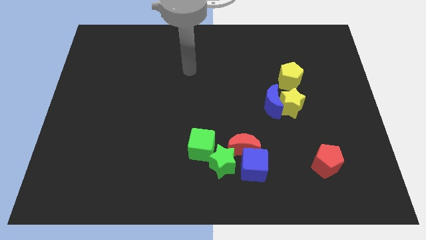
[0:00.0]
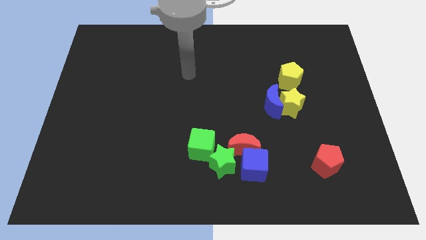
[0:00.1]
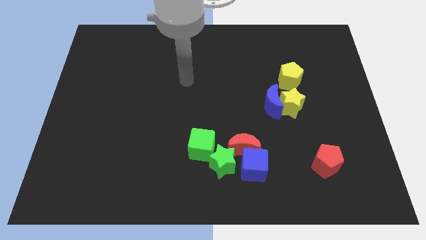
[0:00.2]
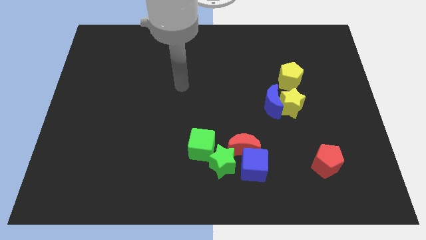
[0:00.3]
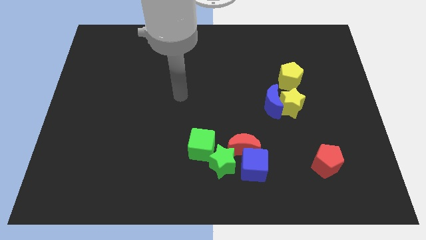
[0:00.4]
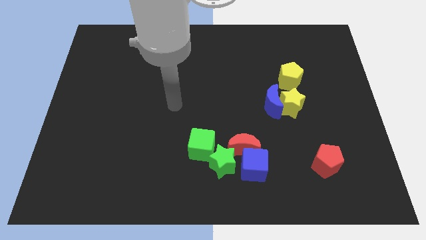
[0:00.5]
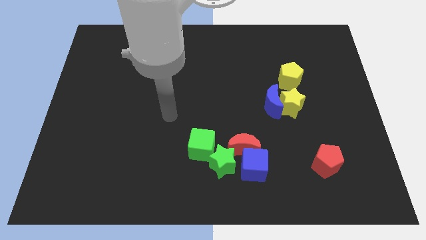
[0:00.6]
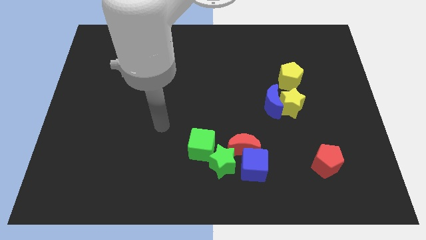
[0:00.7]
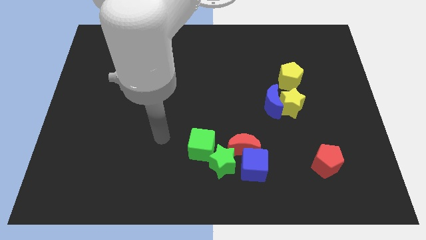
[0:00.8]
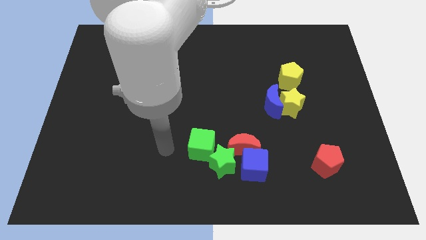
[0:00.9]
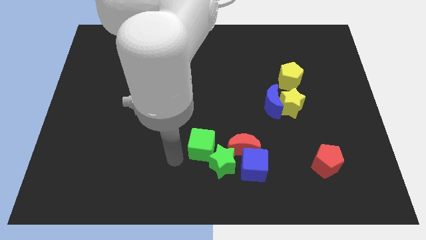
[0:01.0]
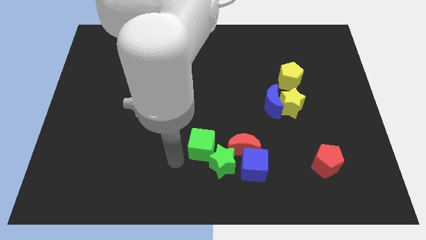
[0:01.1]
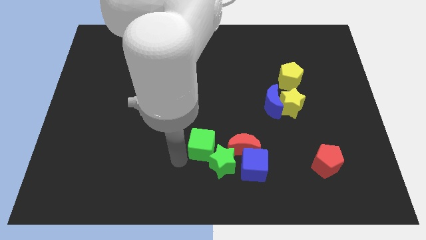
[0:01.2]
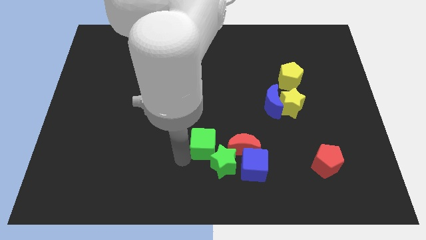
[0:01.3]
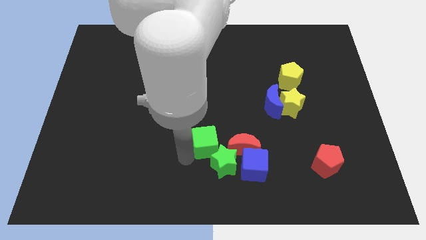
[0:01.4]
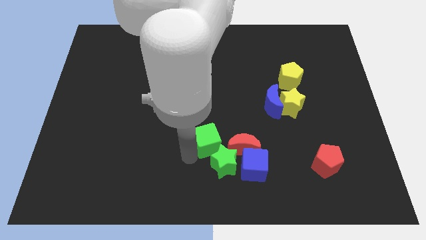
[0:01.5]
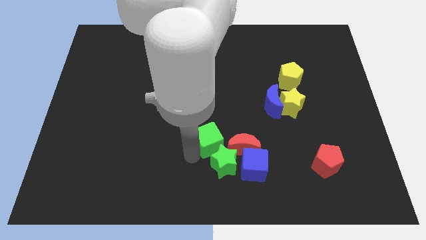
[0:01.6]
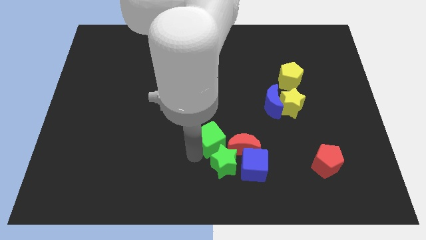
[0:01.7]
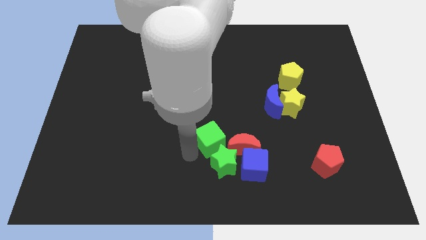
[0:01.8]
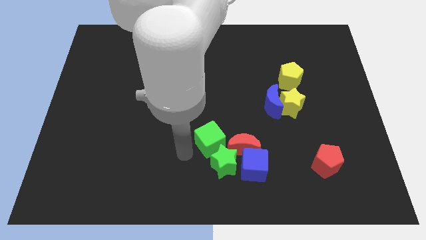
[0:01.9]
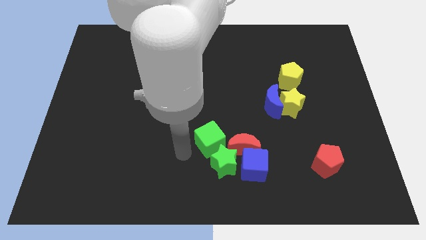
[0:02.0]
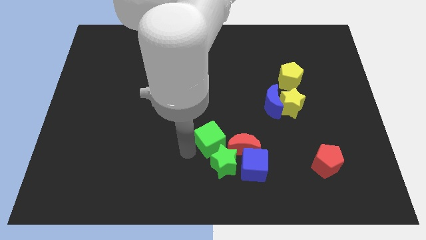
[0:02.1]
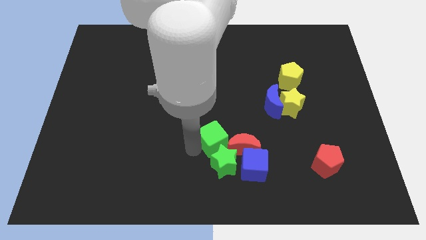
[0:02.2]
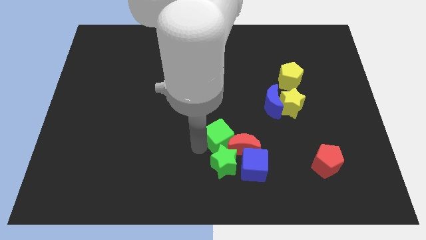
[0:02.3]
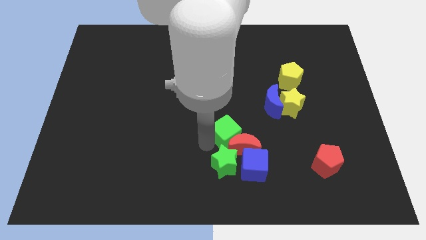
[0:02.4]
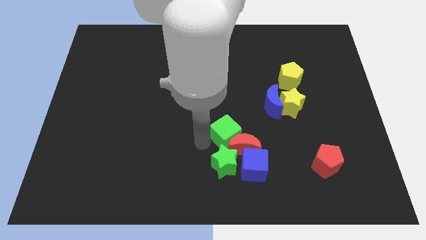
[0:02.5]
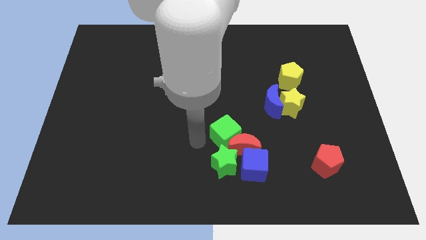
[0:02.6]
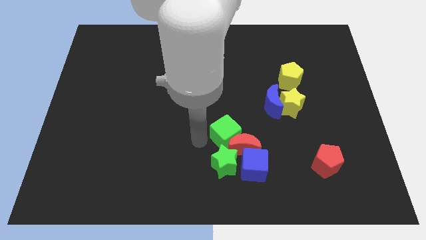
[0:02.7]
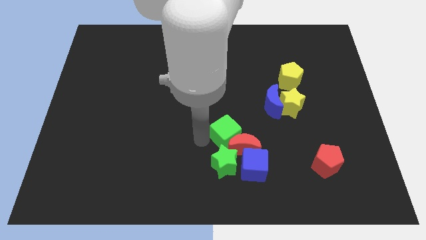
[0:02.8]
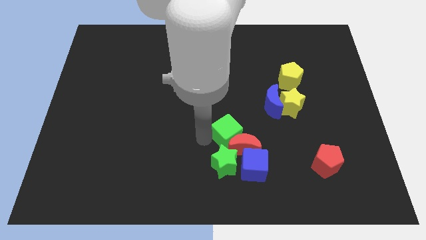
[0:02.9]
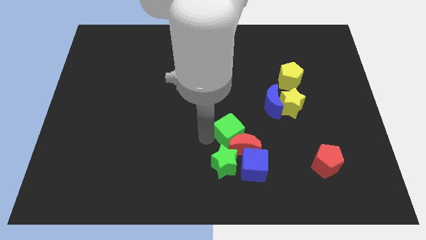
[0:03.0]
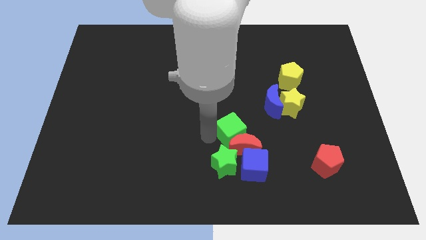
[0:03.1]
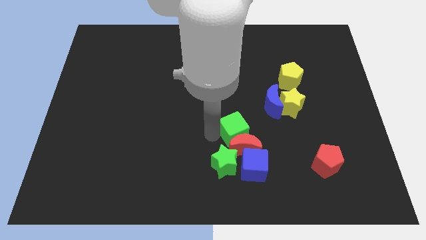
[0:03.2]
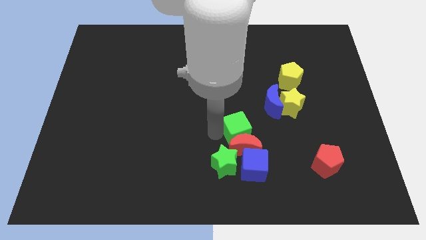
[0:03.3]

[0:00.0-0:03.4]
slide the green cube a little right

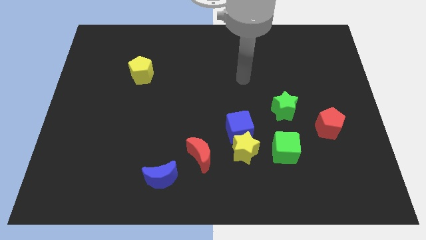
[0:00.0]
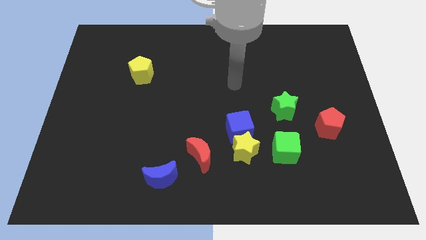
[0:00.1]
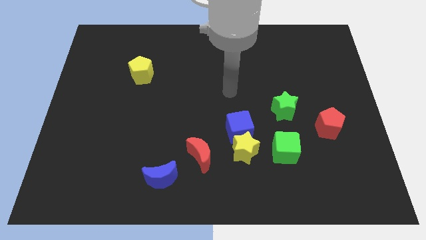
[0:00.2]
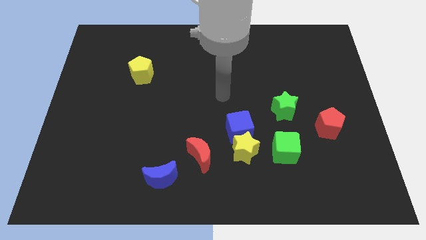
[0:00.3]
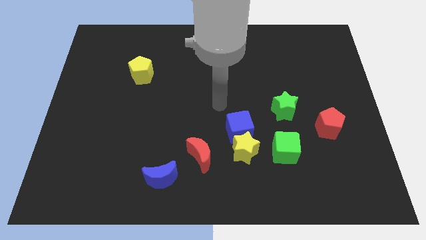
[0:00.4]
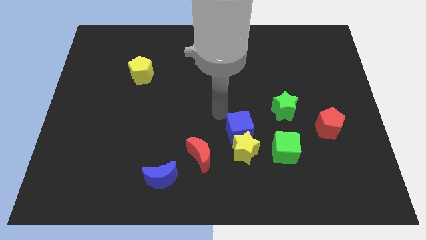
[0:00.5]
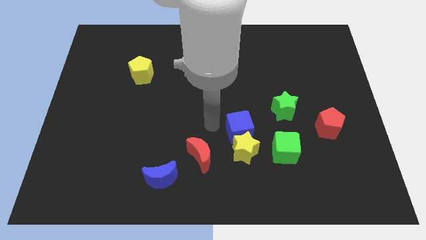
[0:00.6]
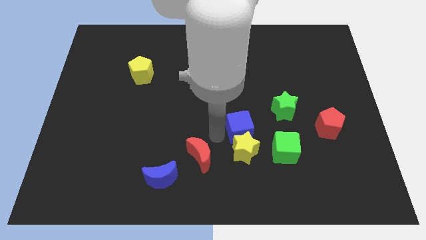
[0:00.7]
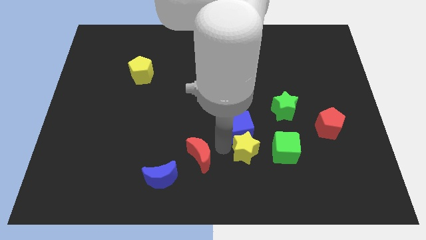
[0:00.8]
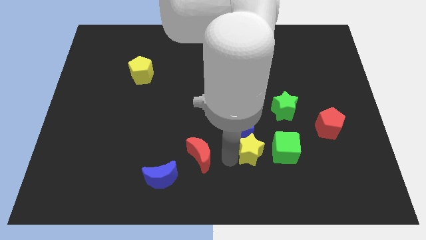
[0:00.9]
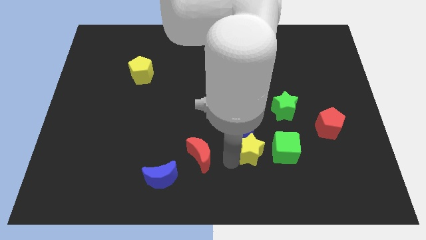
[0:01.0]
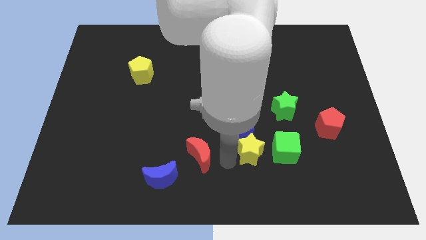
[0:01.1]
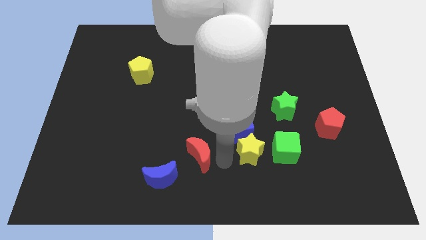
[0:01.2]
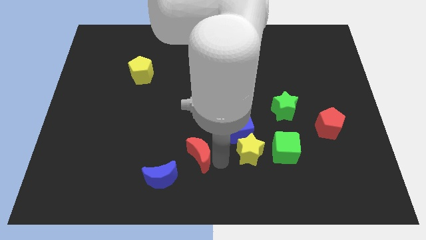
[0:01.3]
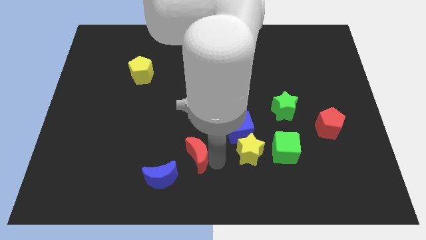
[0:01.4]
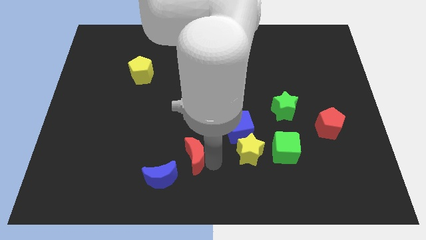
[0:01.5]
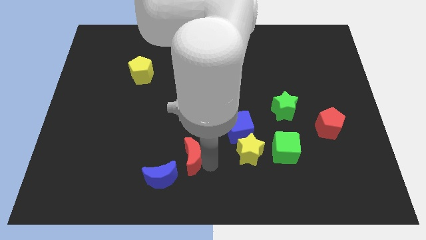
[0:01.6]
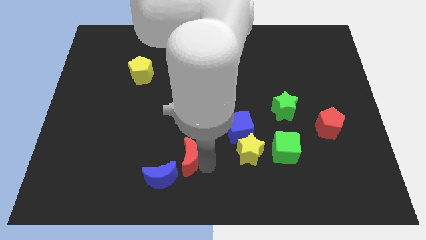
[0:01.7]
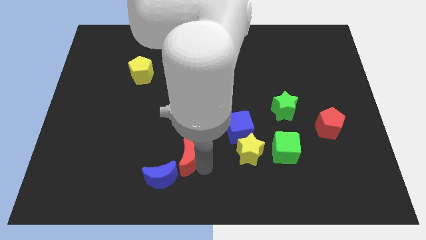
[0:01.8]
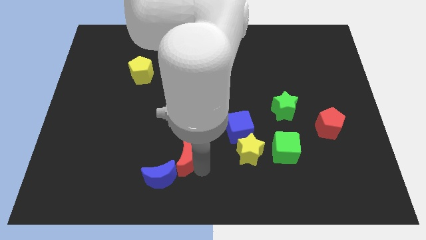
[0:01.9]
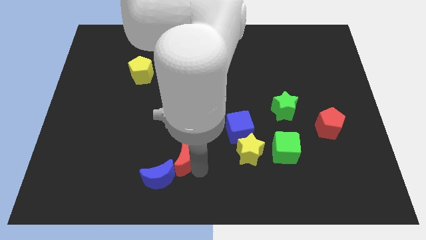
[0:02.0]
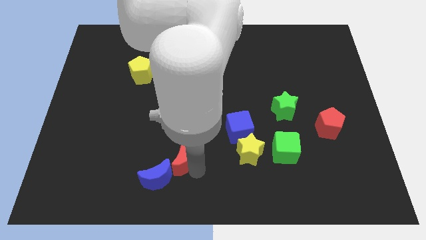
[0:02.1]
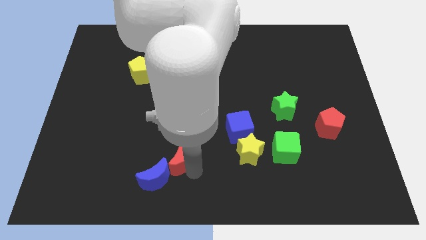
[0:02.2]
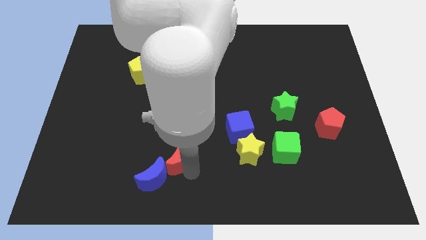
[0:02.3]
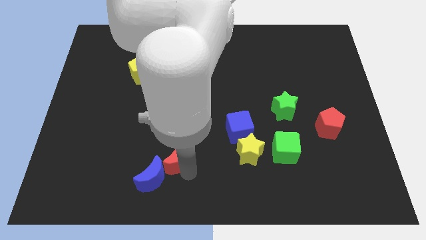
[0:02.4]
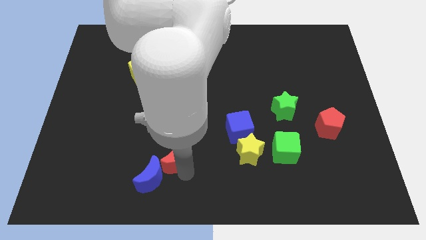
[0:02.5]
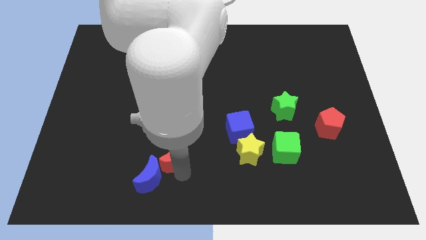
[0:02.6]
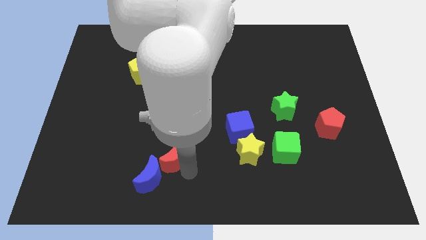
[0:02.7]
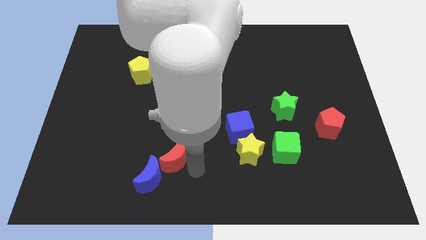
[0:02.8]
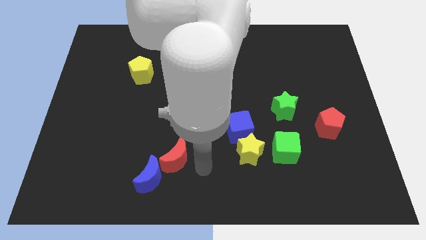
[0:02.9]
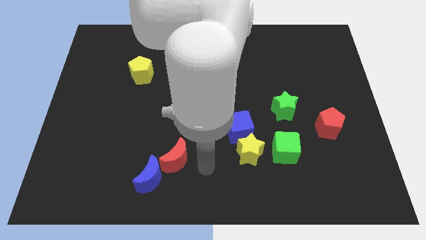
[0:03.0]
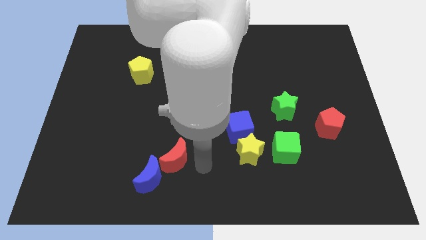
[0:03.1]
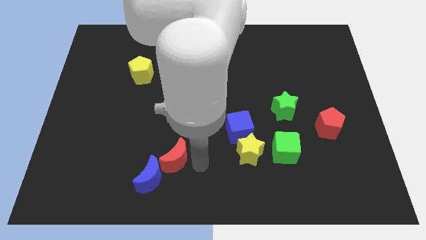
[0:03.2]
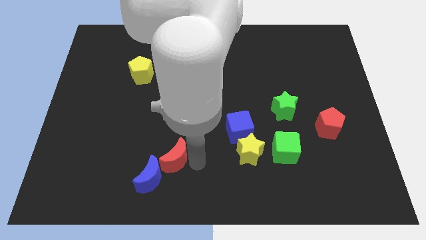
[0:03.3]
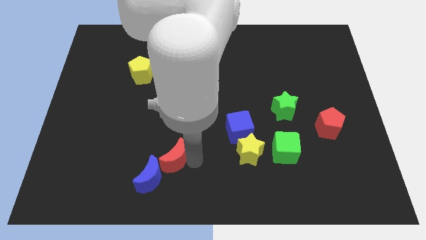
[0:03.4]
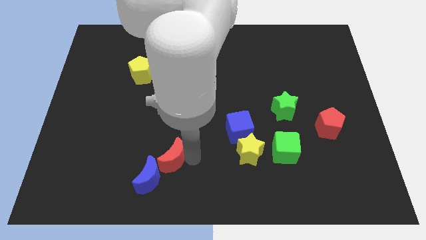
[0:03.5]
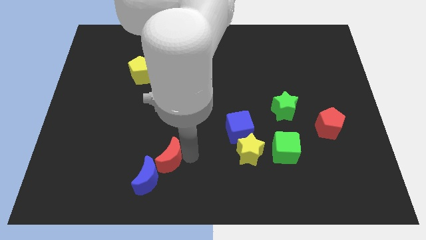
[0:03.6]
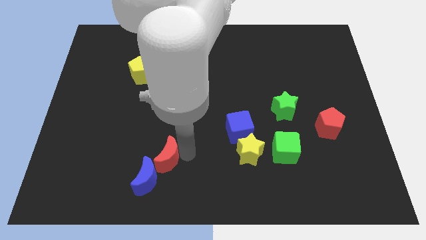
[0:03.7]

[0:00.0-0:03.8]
slide the red moon a little bit to the left

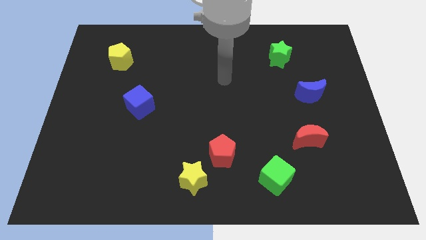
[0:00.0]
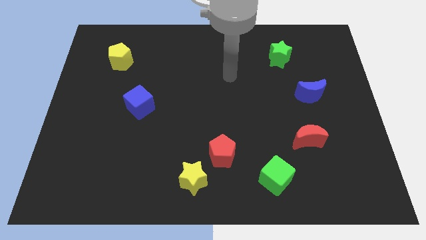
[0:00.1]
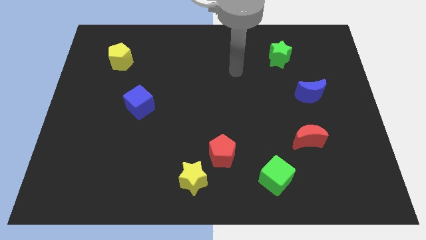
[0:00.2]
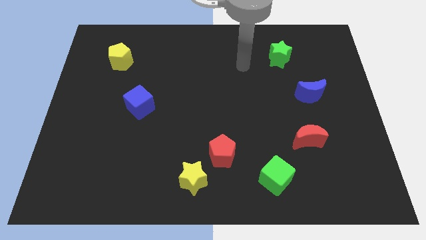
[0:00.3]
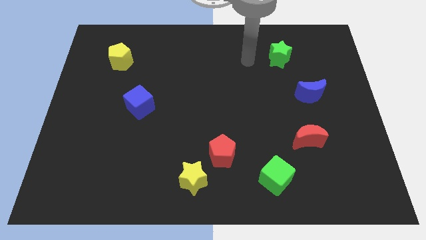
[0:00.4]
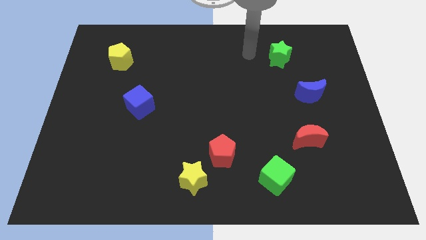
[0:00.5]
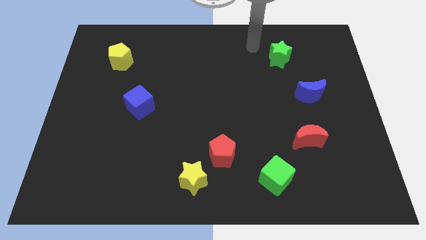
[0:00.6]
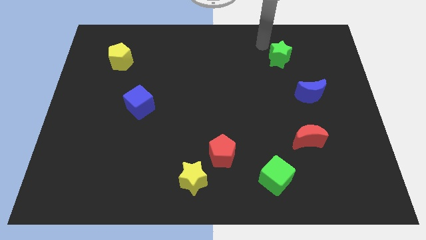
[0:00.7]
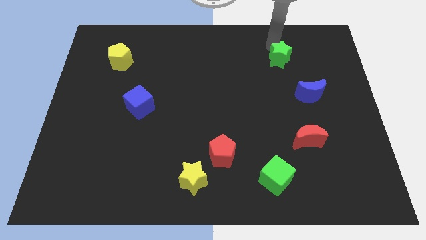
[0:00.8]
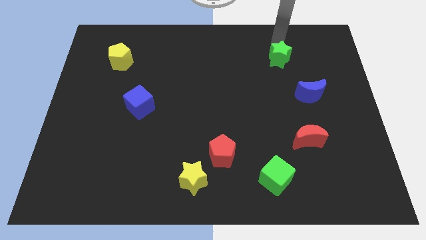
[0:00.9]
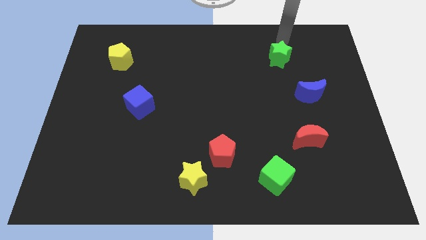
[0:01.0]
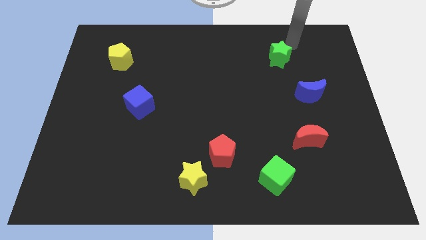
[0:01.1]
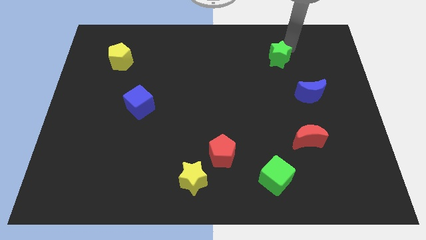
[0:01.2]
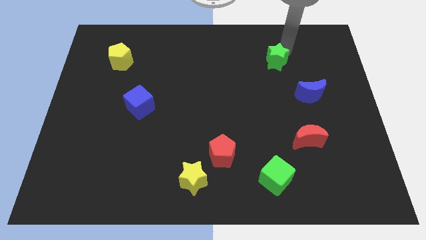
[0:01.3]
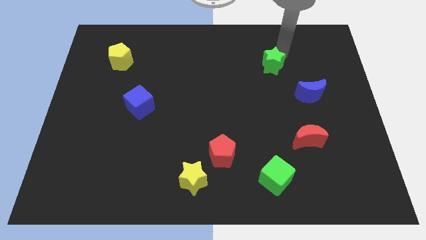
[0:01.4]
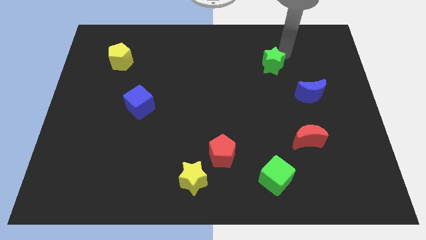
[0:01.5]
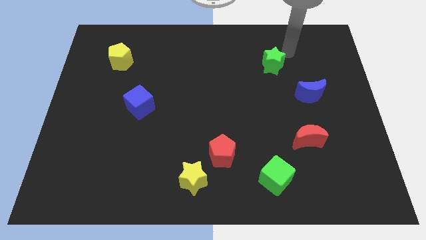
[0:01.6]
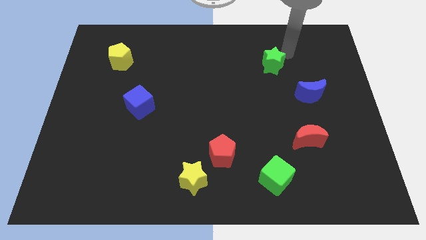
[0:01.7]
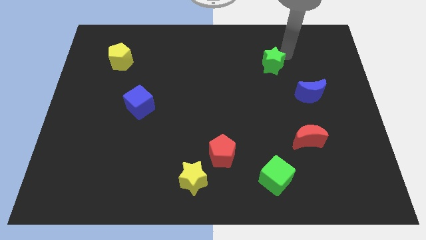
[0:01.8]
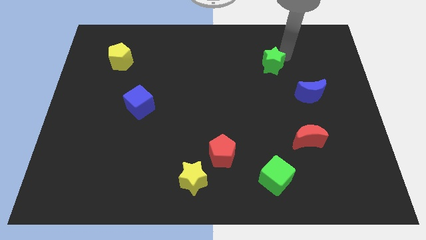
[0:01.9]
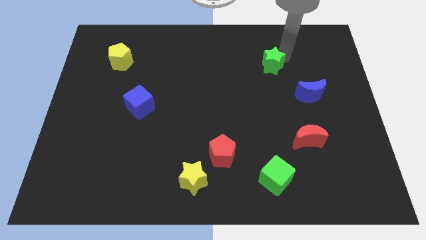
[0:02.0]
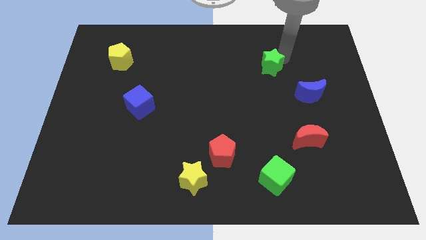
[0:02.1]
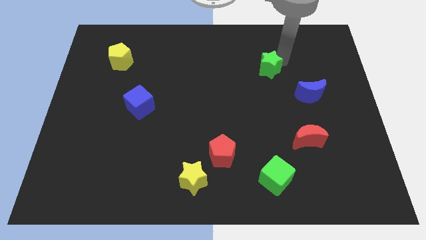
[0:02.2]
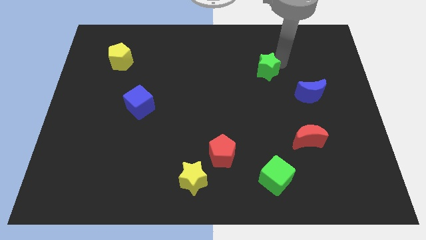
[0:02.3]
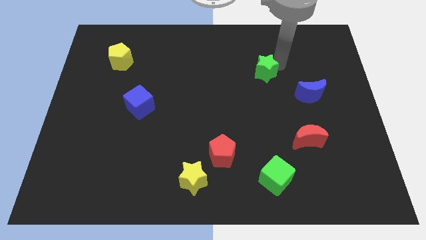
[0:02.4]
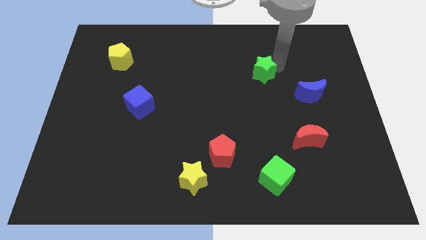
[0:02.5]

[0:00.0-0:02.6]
slide the green star a bit downwards and left diagonally
